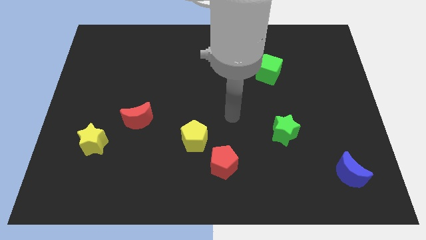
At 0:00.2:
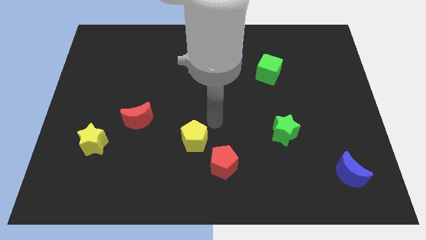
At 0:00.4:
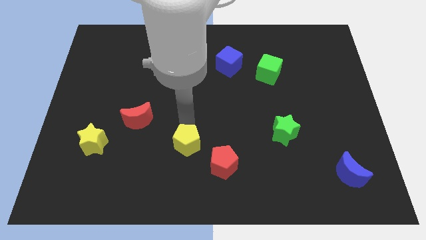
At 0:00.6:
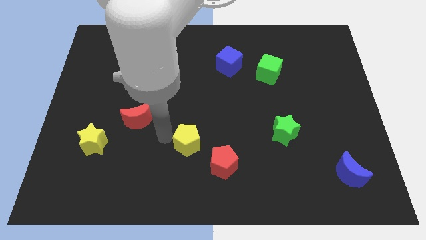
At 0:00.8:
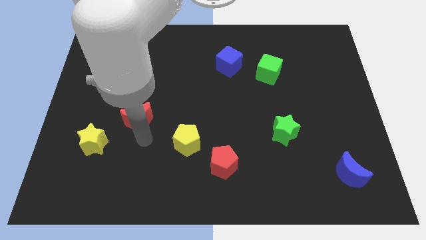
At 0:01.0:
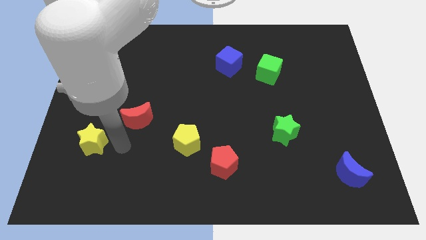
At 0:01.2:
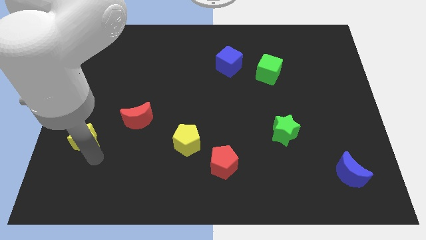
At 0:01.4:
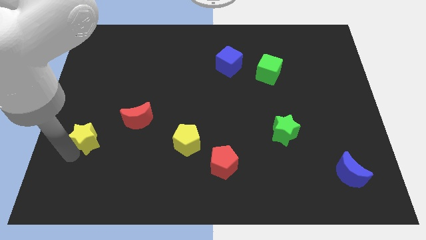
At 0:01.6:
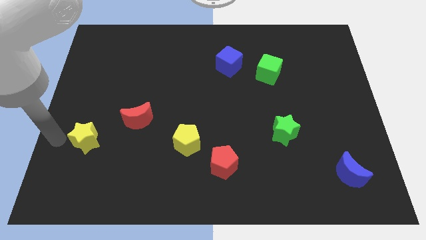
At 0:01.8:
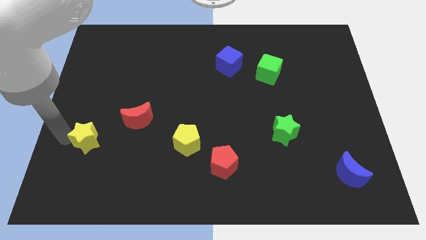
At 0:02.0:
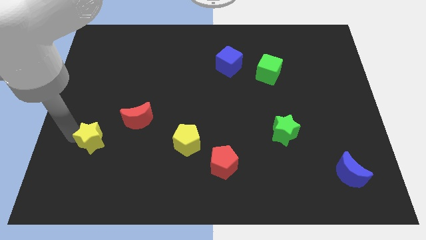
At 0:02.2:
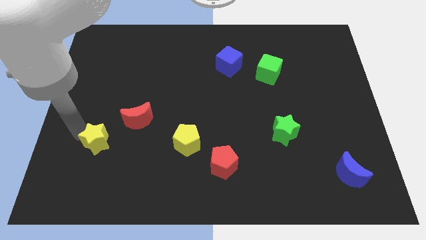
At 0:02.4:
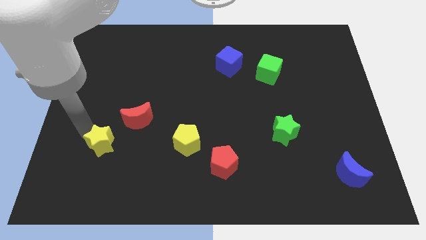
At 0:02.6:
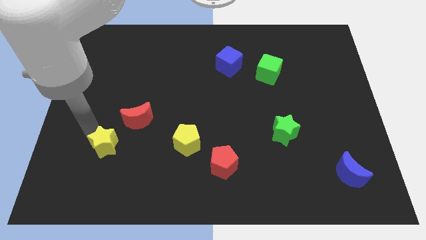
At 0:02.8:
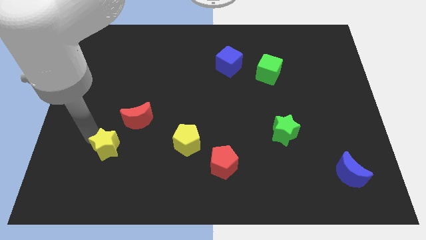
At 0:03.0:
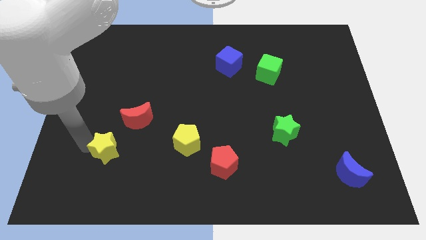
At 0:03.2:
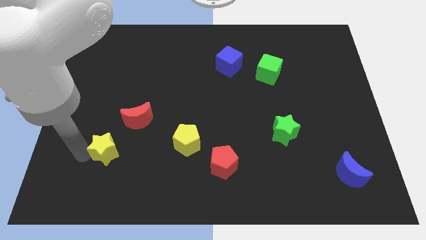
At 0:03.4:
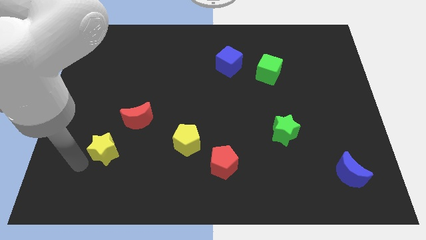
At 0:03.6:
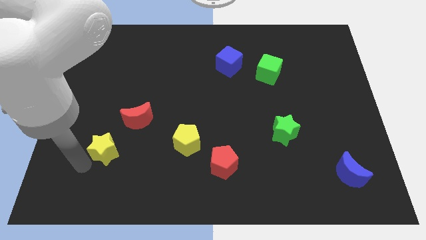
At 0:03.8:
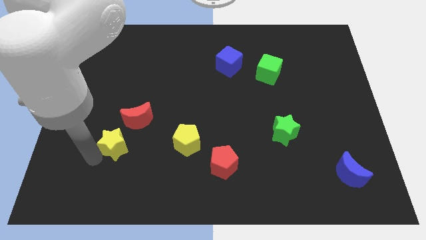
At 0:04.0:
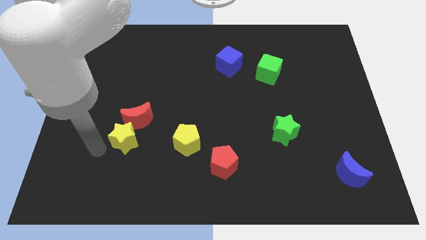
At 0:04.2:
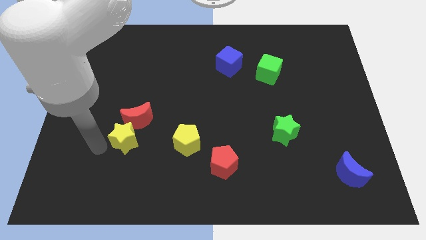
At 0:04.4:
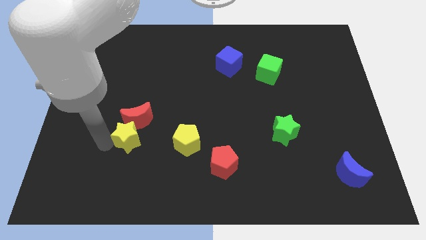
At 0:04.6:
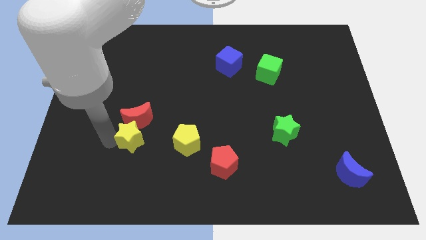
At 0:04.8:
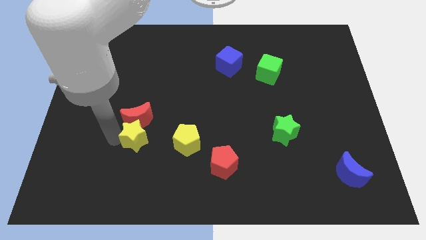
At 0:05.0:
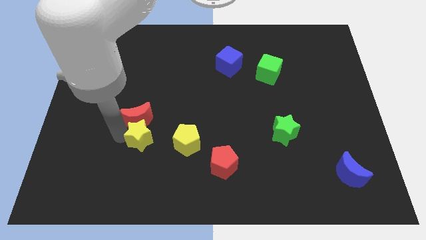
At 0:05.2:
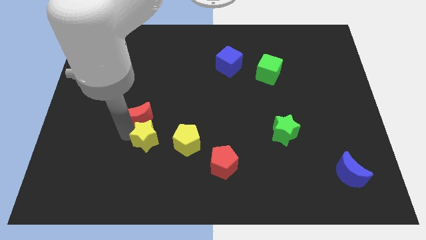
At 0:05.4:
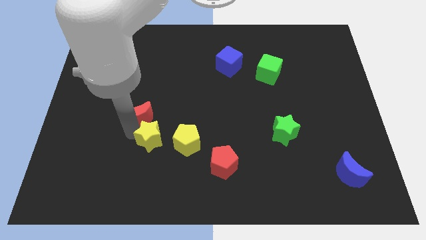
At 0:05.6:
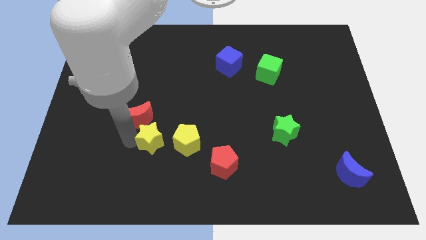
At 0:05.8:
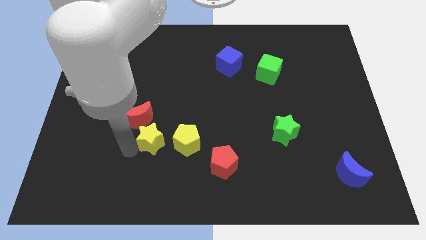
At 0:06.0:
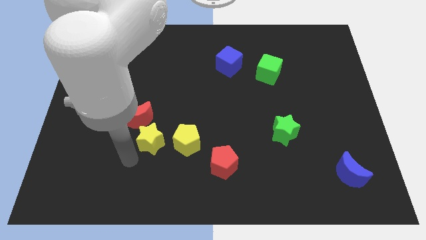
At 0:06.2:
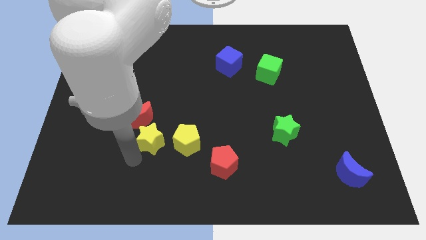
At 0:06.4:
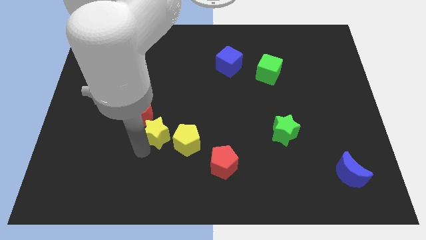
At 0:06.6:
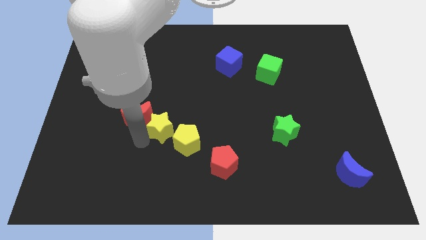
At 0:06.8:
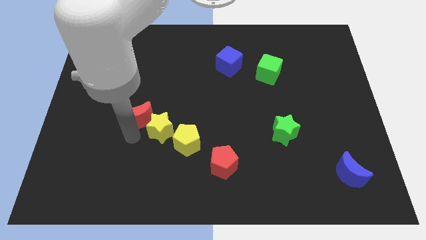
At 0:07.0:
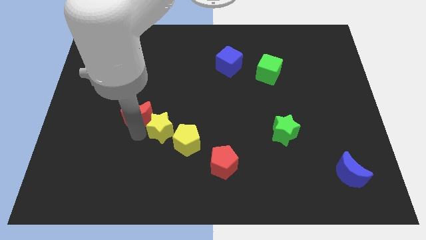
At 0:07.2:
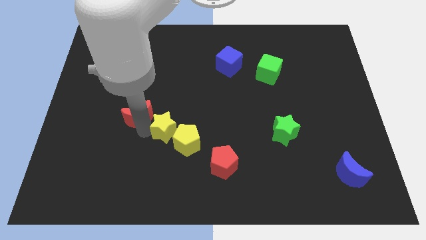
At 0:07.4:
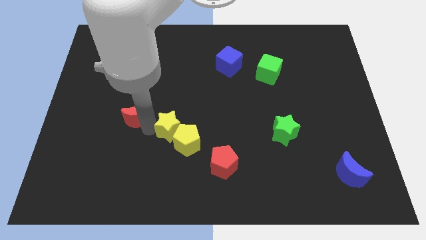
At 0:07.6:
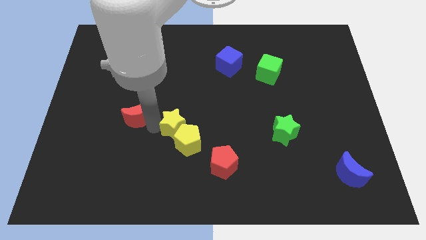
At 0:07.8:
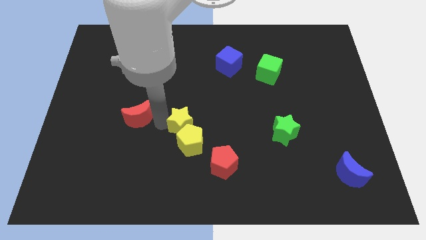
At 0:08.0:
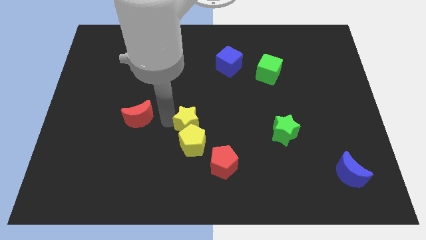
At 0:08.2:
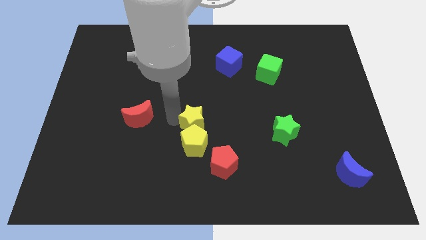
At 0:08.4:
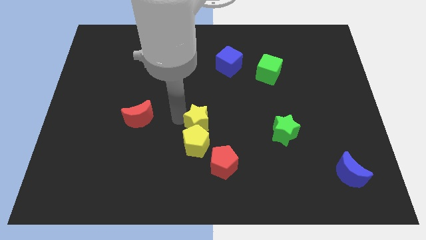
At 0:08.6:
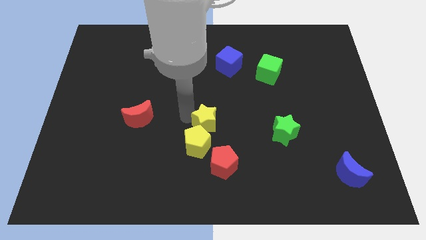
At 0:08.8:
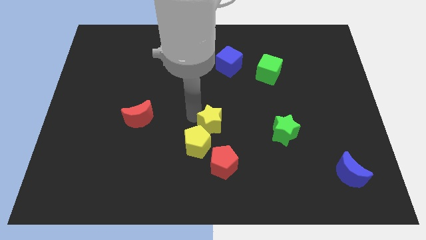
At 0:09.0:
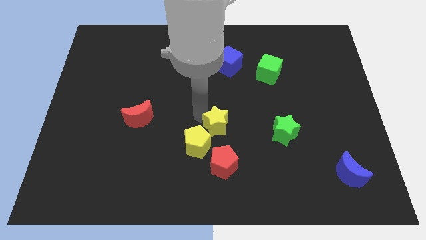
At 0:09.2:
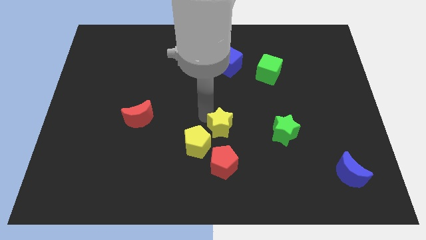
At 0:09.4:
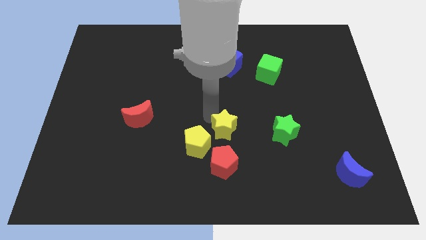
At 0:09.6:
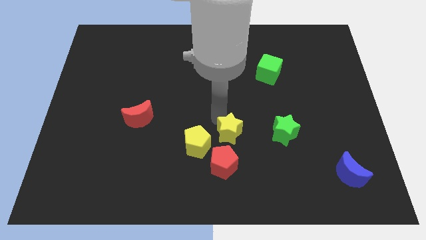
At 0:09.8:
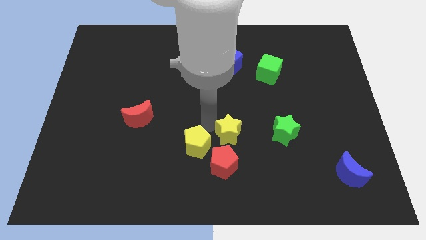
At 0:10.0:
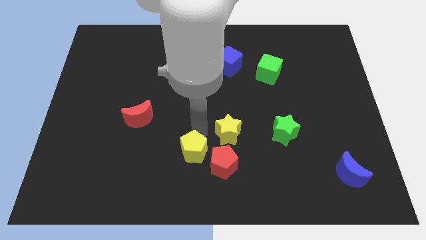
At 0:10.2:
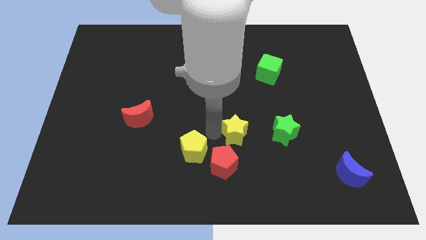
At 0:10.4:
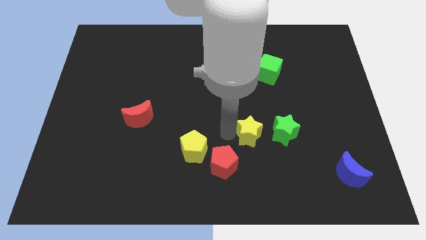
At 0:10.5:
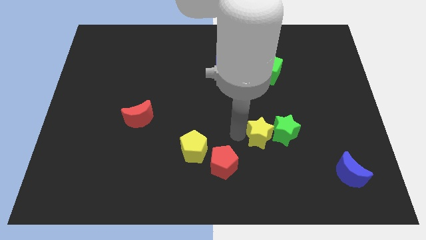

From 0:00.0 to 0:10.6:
slide the yellow star to the green star

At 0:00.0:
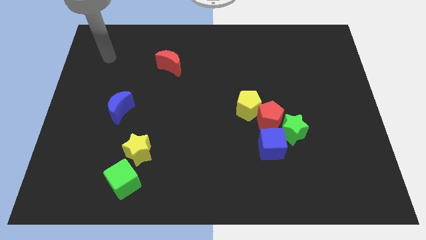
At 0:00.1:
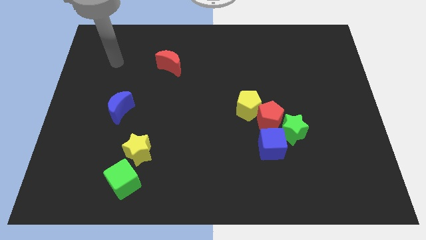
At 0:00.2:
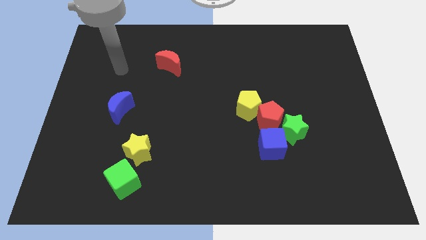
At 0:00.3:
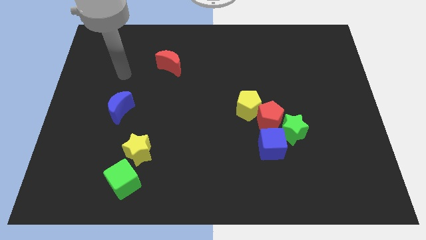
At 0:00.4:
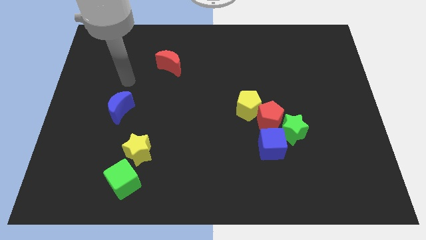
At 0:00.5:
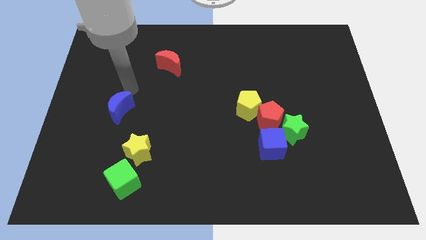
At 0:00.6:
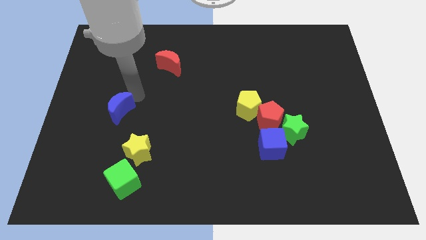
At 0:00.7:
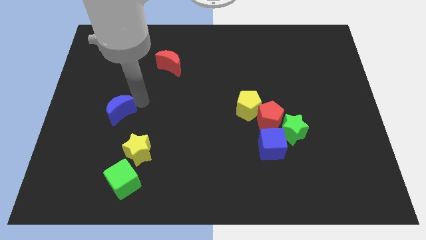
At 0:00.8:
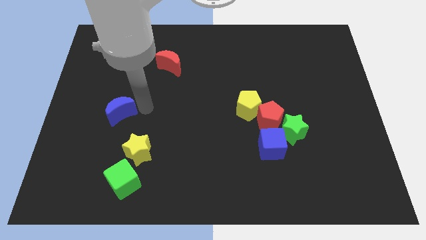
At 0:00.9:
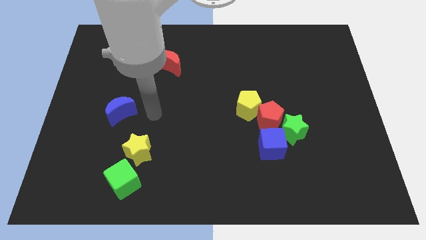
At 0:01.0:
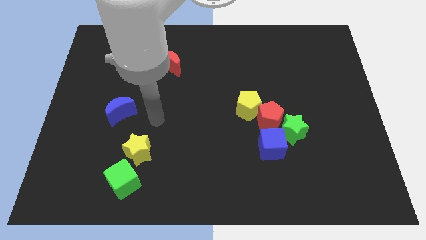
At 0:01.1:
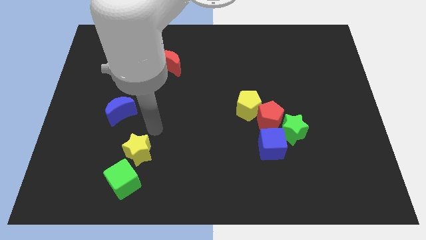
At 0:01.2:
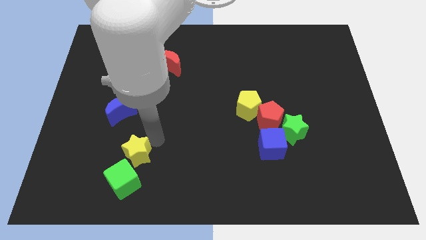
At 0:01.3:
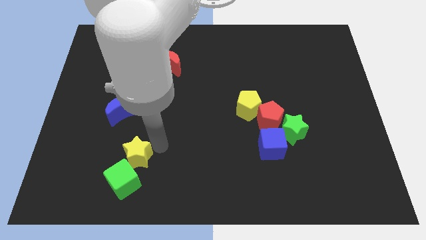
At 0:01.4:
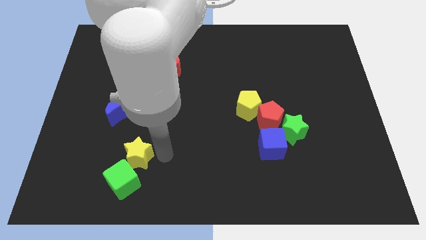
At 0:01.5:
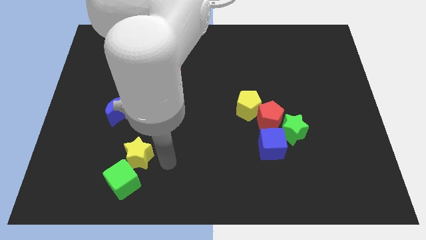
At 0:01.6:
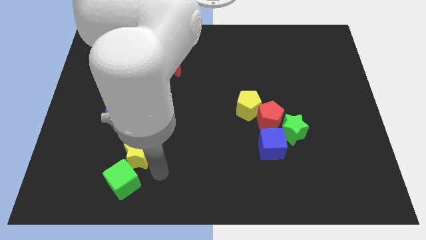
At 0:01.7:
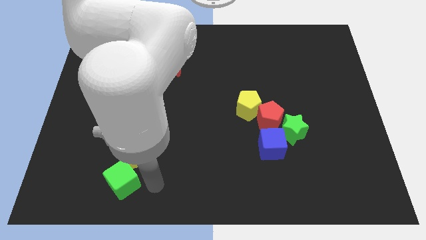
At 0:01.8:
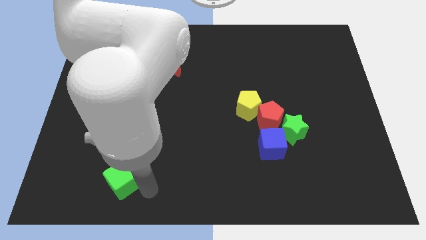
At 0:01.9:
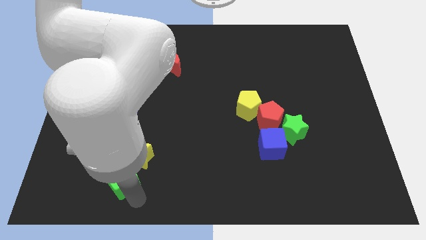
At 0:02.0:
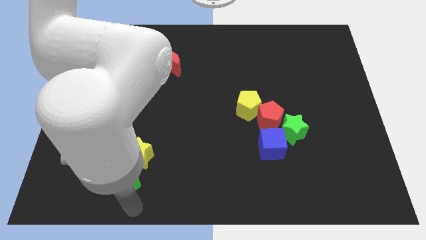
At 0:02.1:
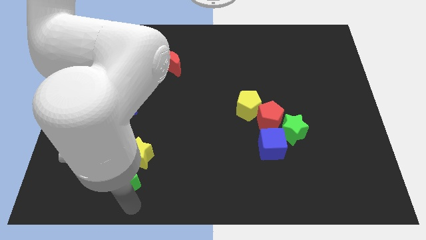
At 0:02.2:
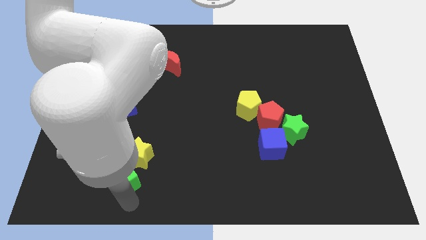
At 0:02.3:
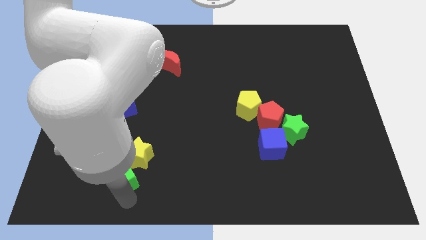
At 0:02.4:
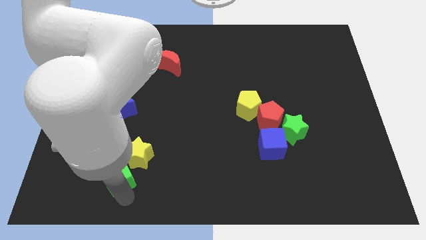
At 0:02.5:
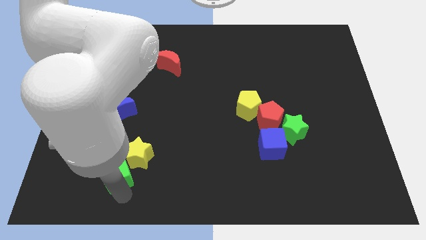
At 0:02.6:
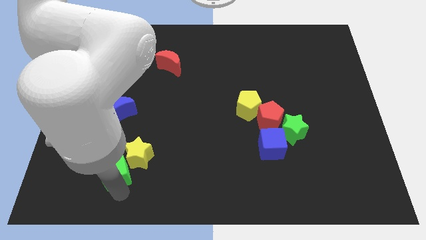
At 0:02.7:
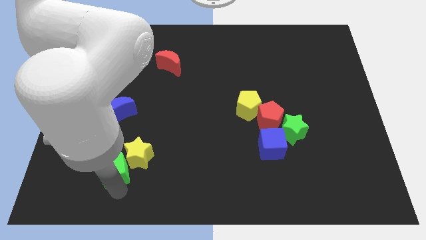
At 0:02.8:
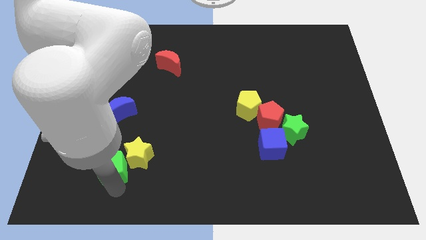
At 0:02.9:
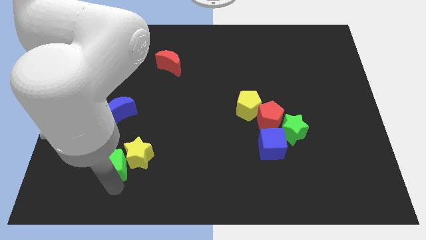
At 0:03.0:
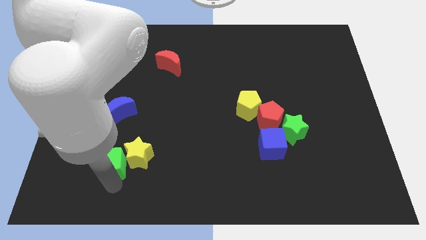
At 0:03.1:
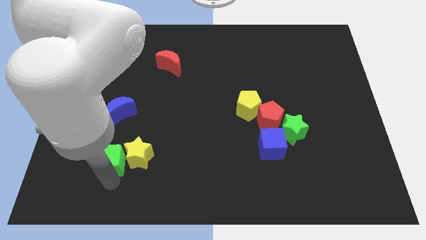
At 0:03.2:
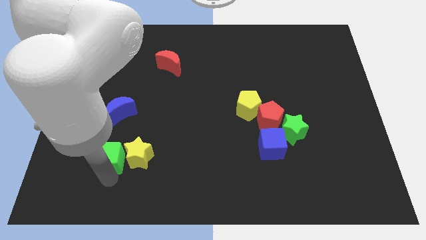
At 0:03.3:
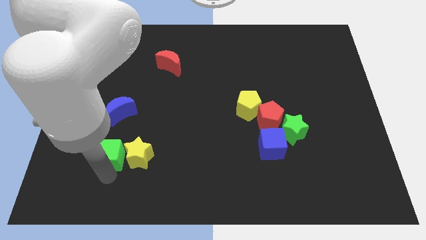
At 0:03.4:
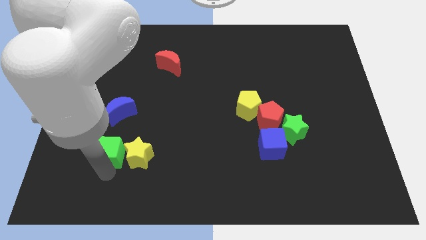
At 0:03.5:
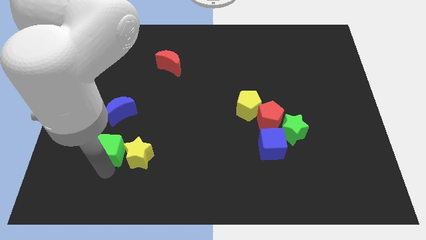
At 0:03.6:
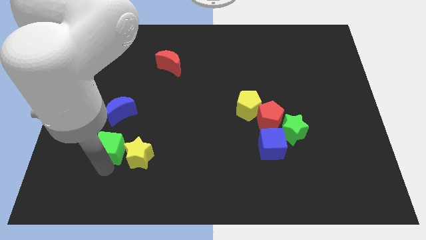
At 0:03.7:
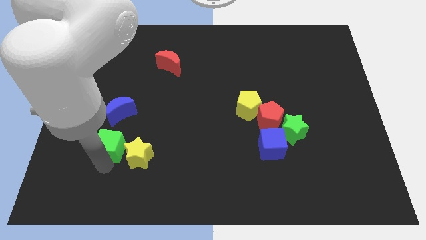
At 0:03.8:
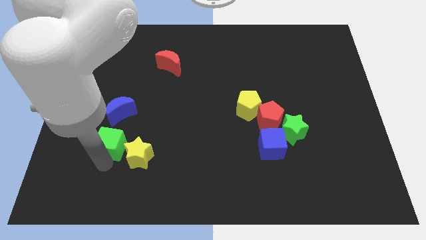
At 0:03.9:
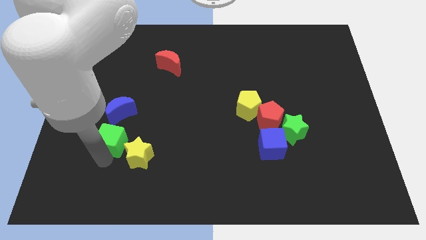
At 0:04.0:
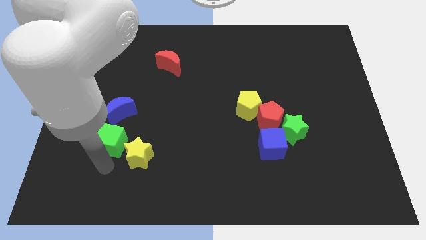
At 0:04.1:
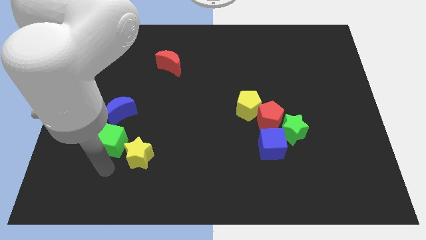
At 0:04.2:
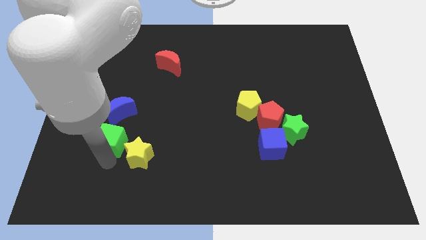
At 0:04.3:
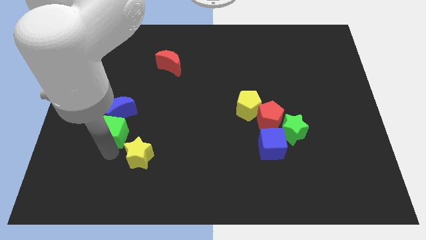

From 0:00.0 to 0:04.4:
move the green cube next to the blue moon
